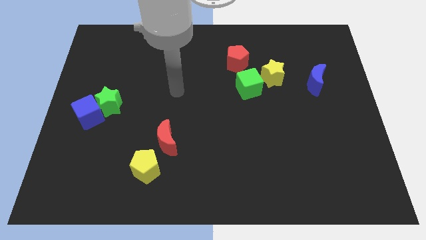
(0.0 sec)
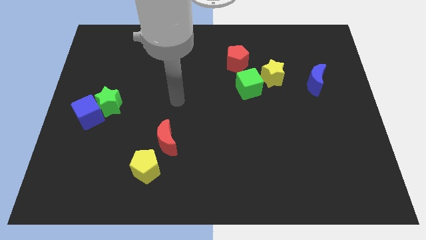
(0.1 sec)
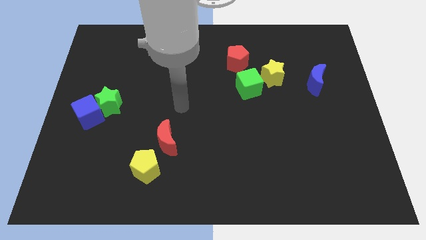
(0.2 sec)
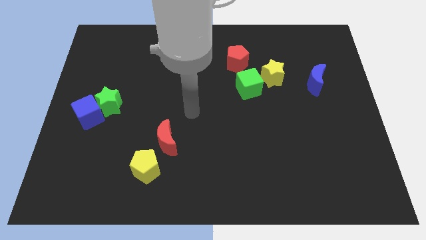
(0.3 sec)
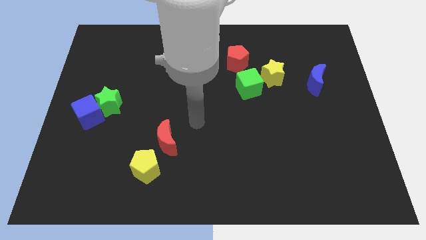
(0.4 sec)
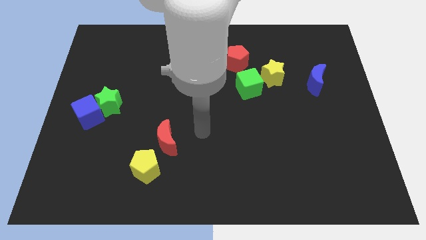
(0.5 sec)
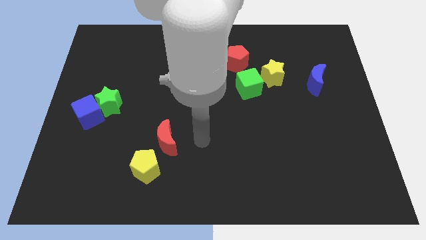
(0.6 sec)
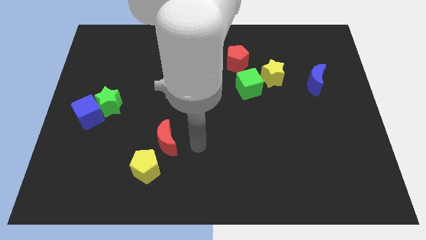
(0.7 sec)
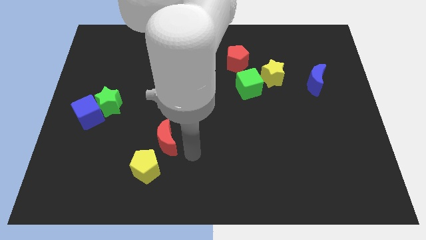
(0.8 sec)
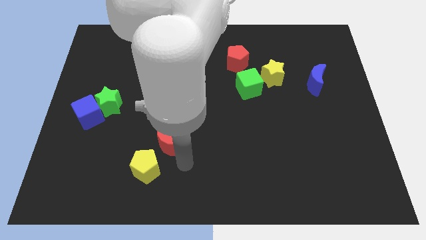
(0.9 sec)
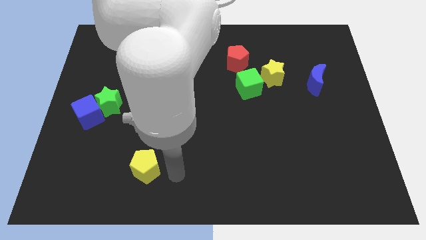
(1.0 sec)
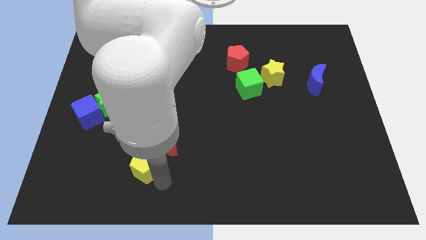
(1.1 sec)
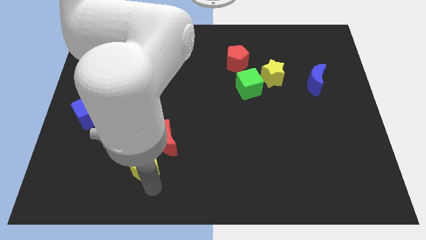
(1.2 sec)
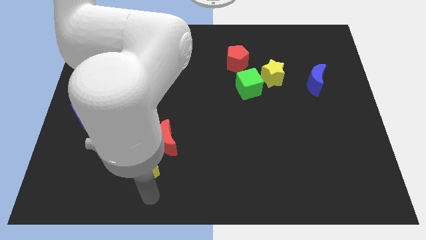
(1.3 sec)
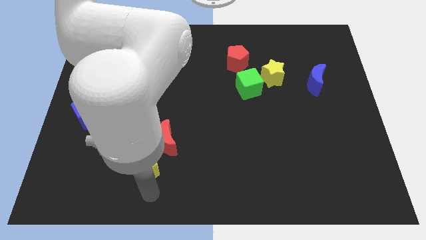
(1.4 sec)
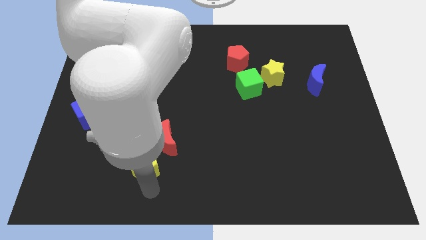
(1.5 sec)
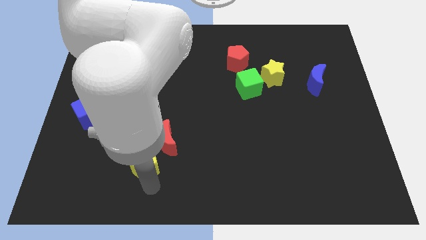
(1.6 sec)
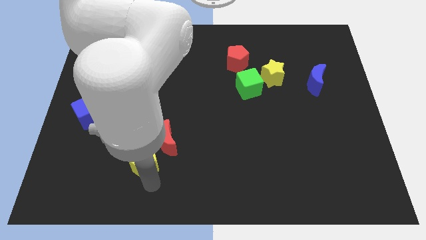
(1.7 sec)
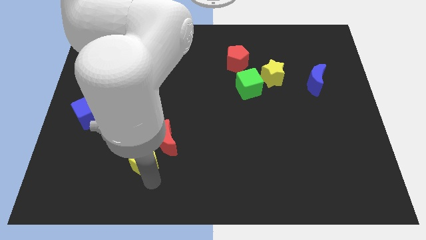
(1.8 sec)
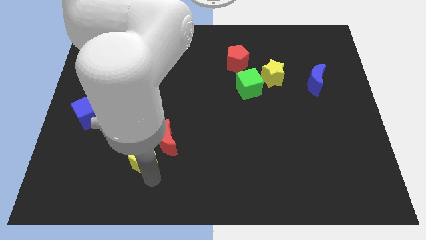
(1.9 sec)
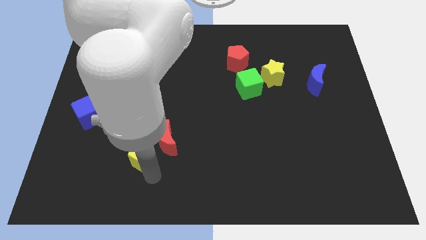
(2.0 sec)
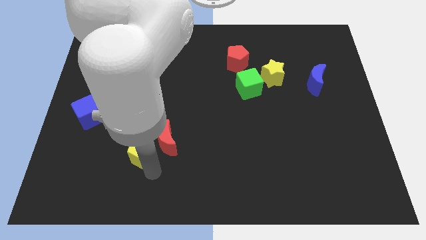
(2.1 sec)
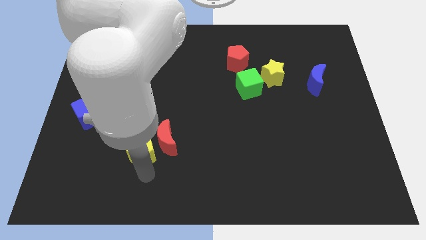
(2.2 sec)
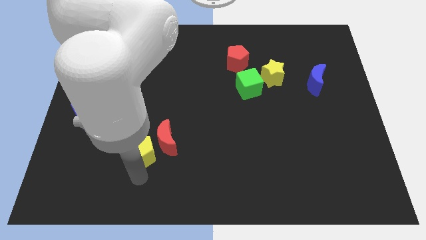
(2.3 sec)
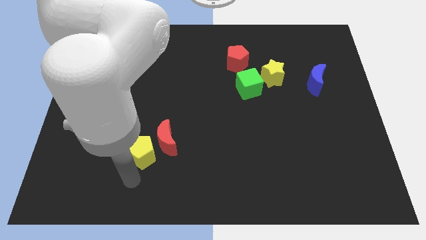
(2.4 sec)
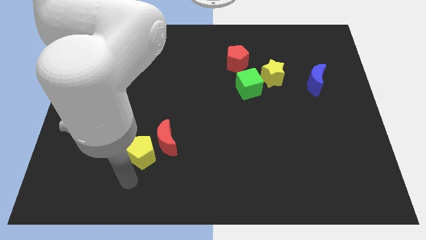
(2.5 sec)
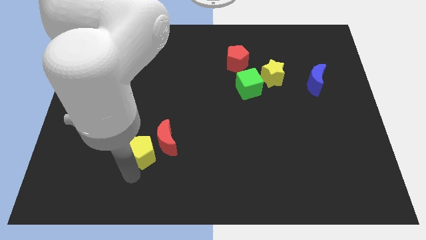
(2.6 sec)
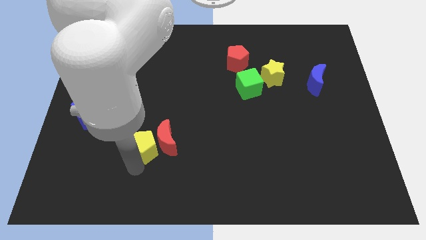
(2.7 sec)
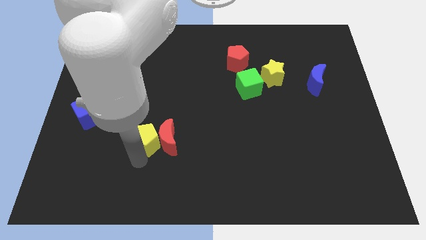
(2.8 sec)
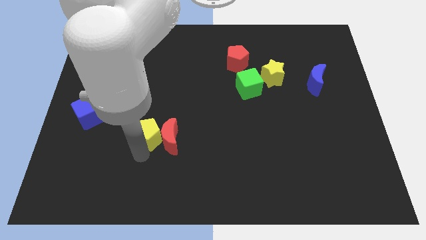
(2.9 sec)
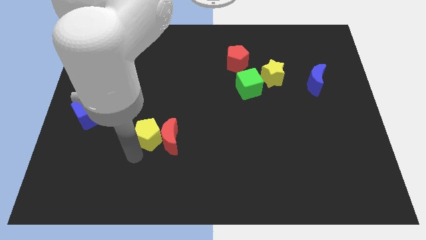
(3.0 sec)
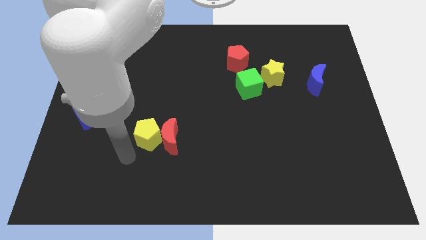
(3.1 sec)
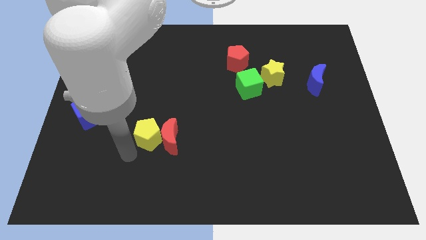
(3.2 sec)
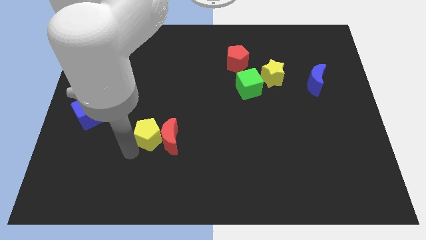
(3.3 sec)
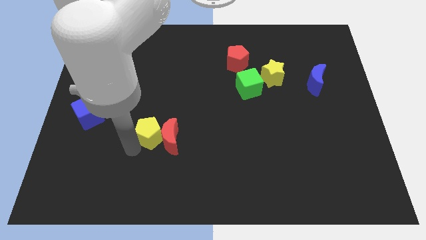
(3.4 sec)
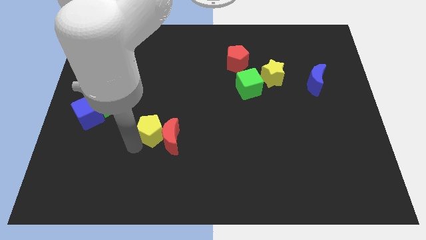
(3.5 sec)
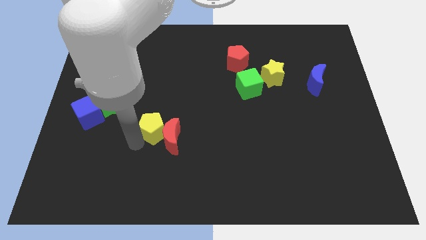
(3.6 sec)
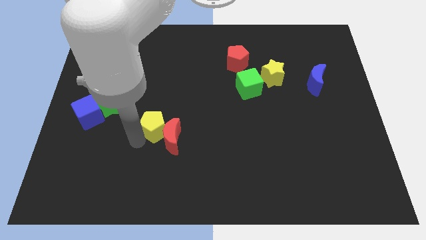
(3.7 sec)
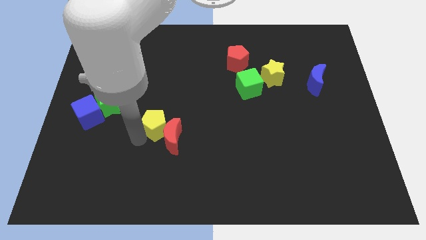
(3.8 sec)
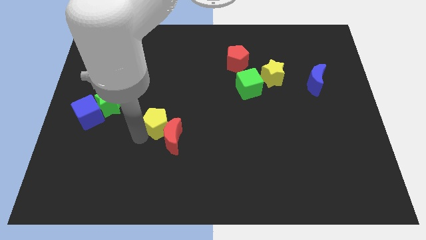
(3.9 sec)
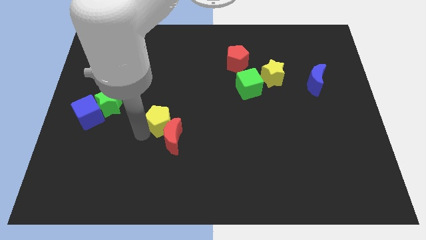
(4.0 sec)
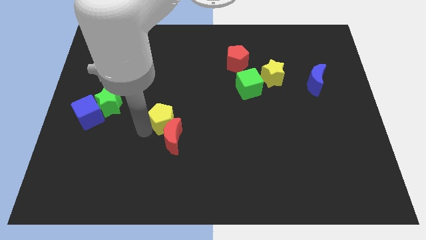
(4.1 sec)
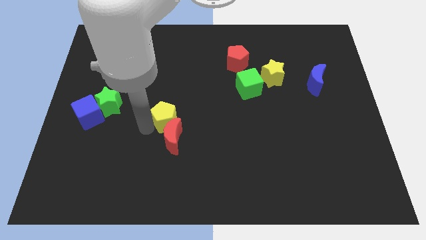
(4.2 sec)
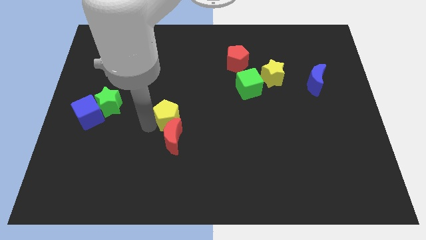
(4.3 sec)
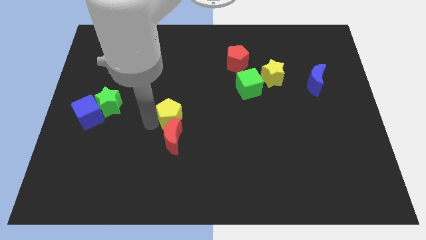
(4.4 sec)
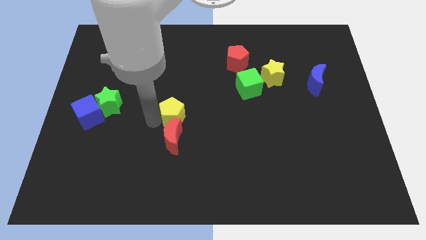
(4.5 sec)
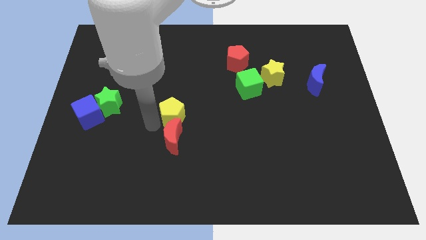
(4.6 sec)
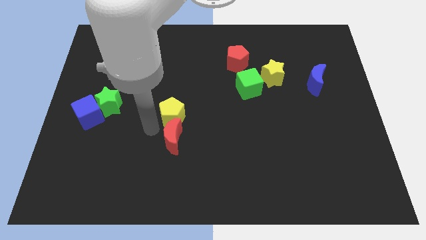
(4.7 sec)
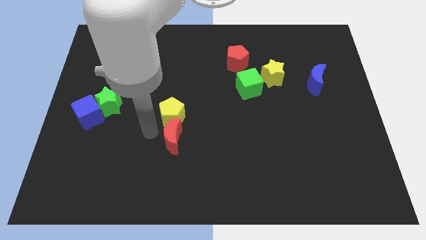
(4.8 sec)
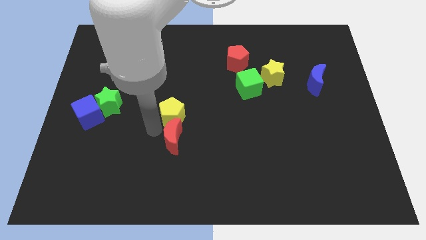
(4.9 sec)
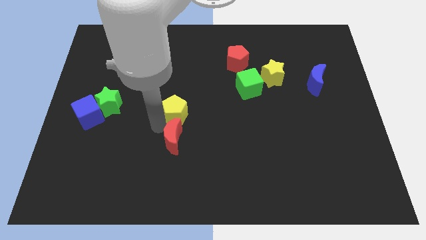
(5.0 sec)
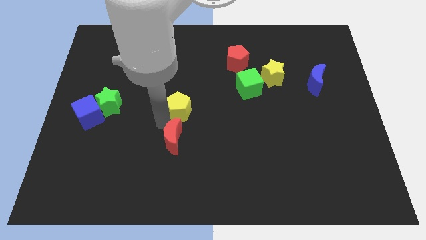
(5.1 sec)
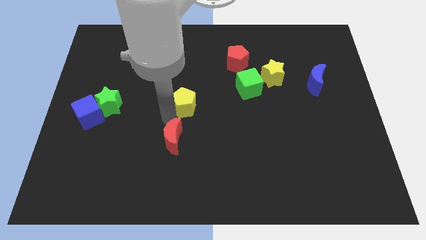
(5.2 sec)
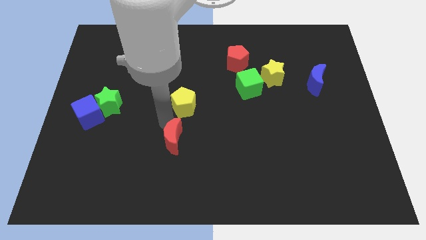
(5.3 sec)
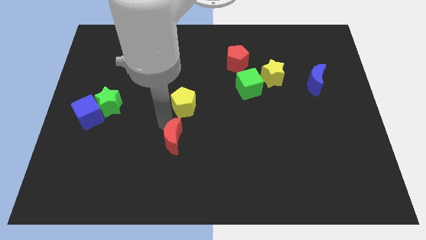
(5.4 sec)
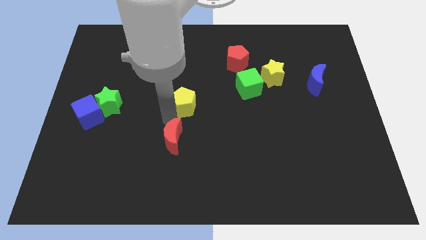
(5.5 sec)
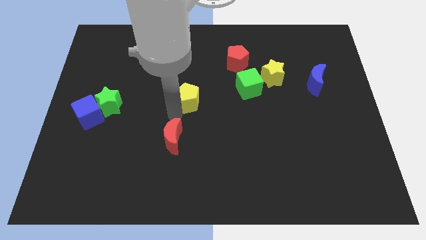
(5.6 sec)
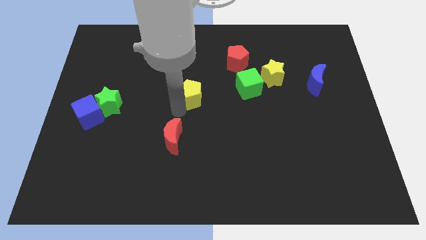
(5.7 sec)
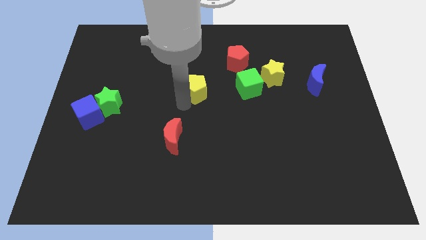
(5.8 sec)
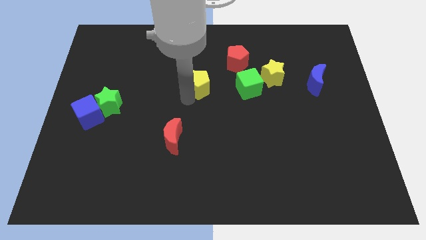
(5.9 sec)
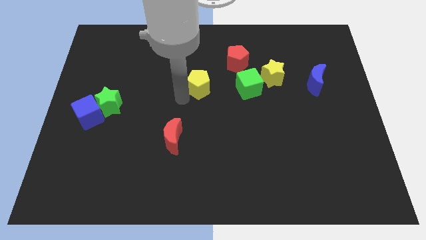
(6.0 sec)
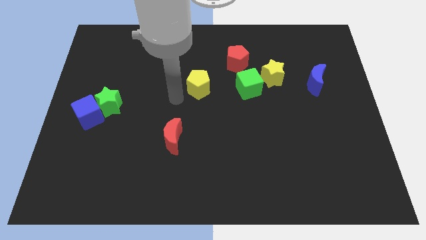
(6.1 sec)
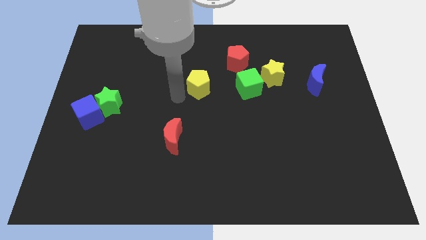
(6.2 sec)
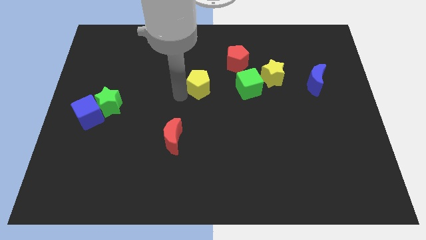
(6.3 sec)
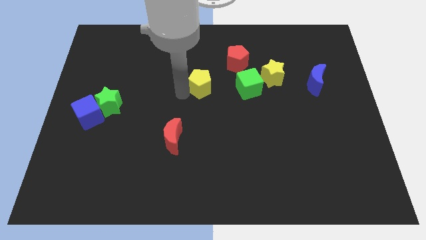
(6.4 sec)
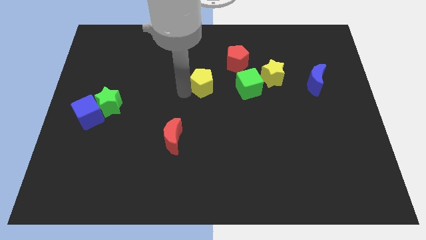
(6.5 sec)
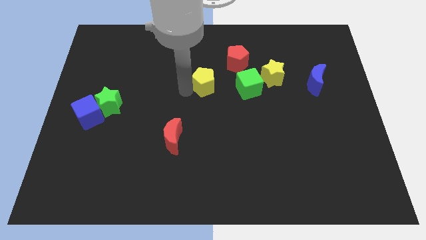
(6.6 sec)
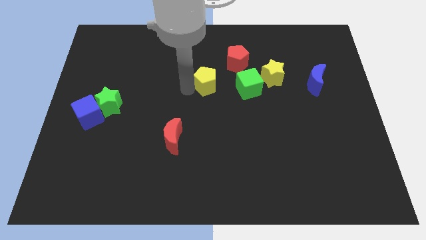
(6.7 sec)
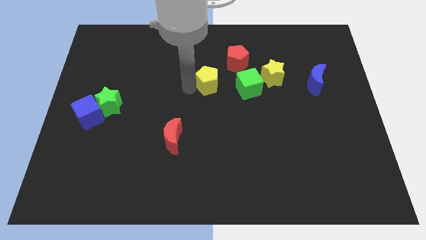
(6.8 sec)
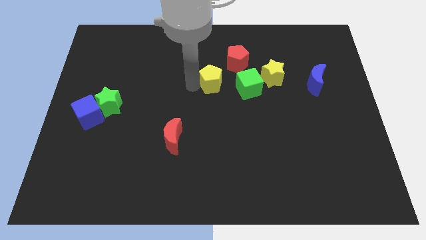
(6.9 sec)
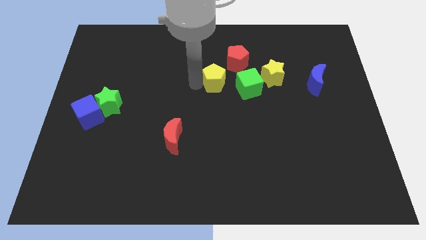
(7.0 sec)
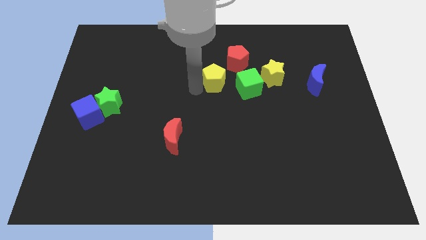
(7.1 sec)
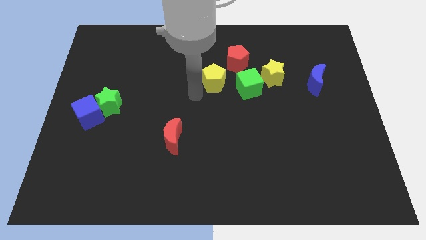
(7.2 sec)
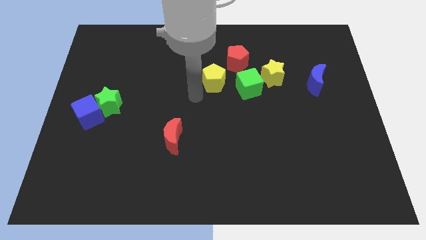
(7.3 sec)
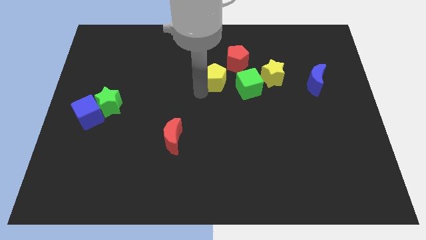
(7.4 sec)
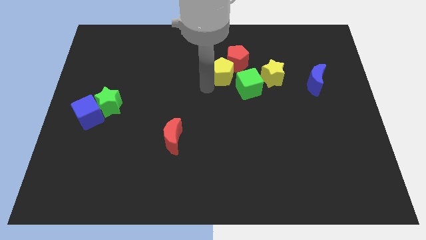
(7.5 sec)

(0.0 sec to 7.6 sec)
push the yellow pentagon to the red pentagon
